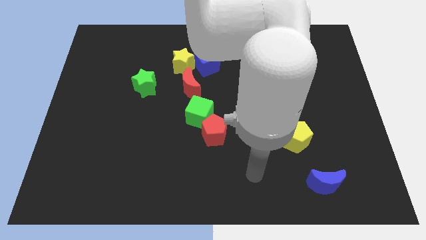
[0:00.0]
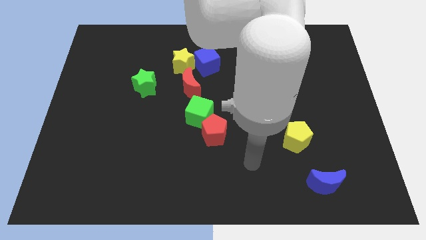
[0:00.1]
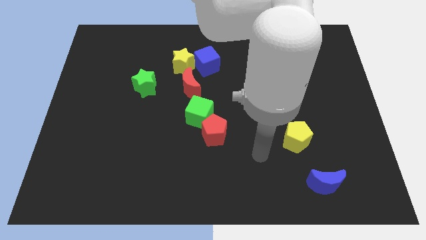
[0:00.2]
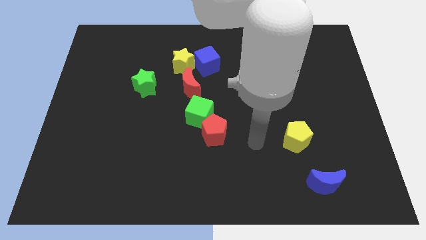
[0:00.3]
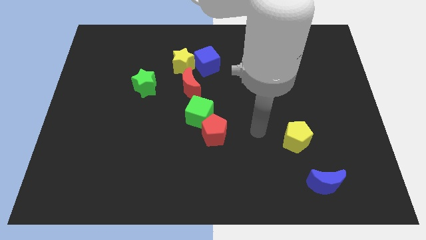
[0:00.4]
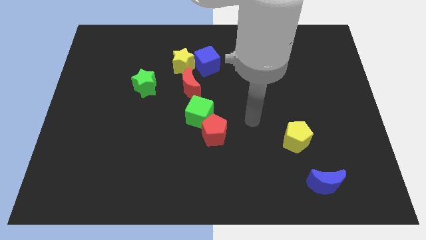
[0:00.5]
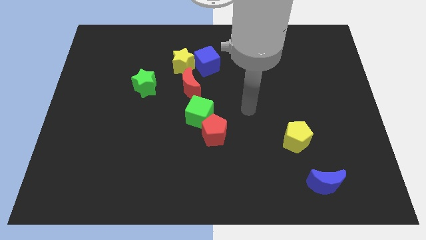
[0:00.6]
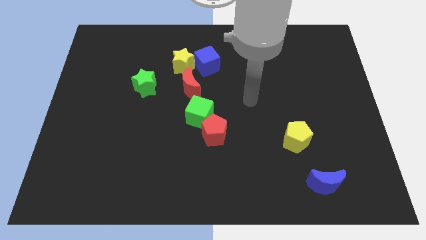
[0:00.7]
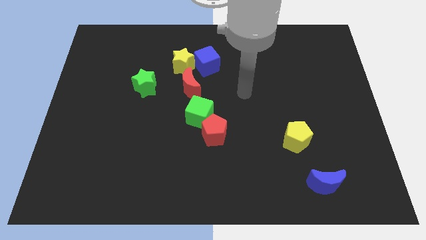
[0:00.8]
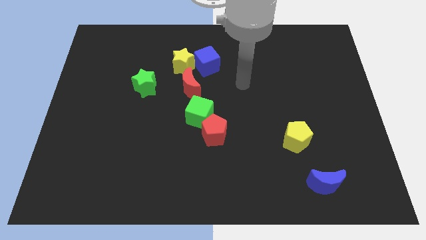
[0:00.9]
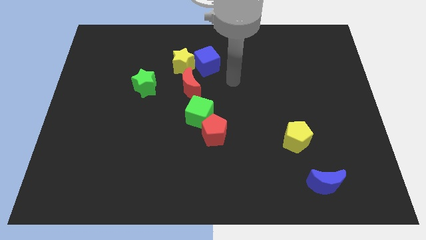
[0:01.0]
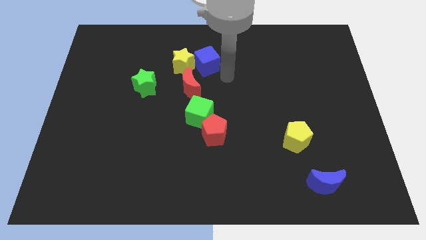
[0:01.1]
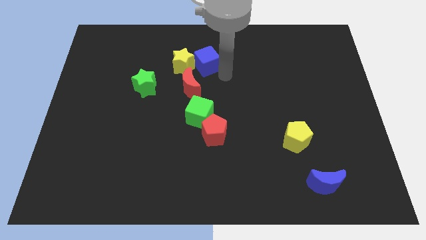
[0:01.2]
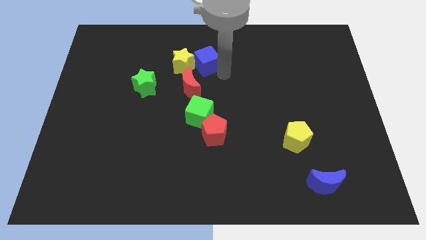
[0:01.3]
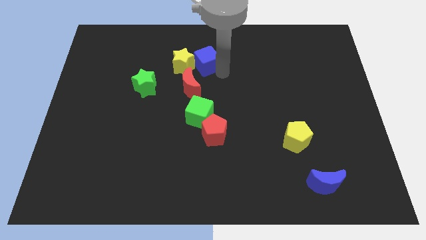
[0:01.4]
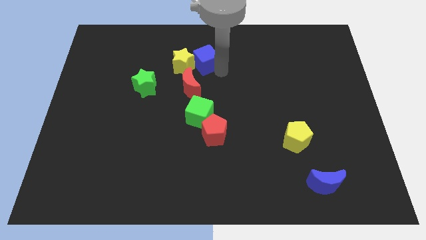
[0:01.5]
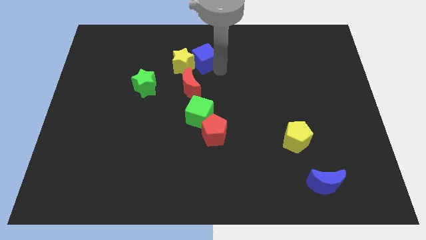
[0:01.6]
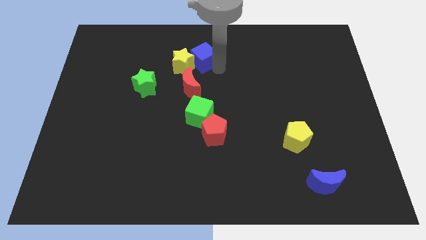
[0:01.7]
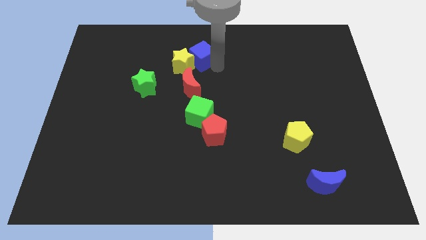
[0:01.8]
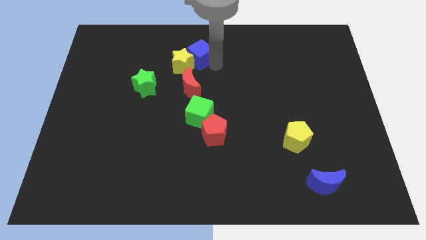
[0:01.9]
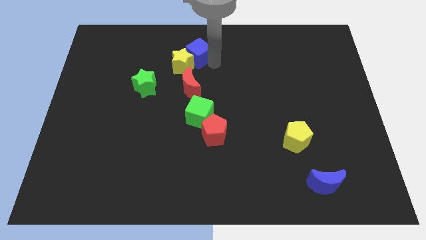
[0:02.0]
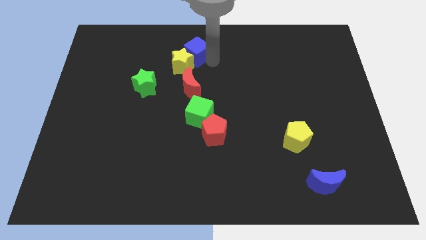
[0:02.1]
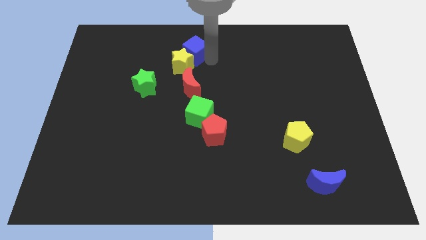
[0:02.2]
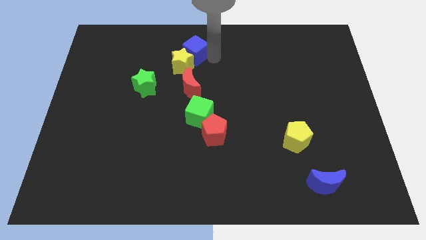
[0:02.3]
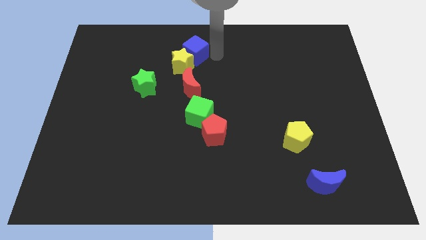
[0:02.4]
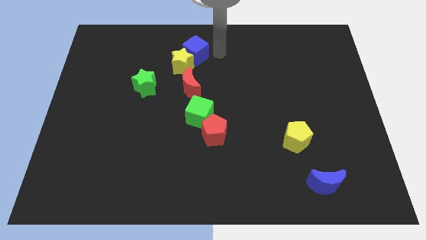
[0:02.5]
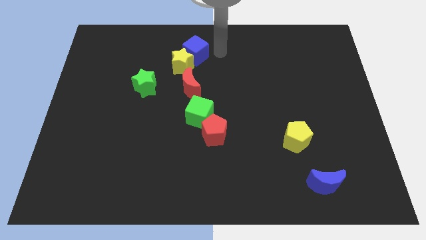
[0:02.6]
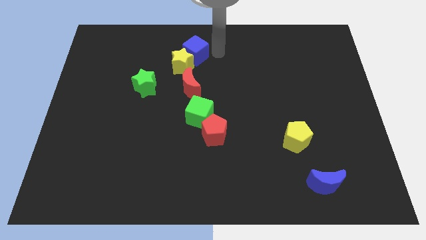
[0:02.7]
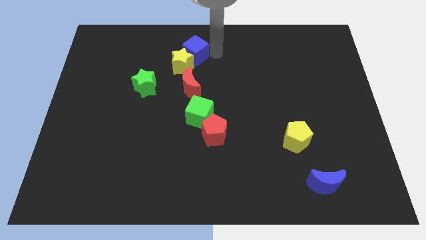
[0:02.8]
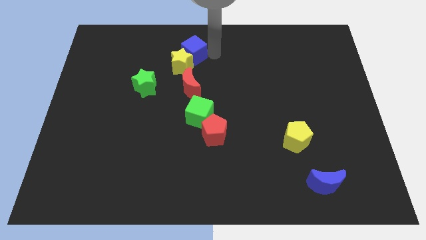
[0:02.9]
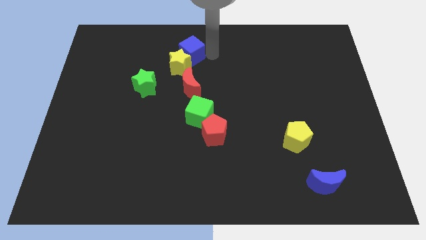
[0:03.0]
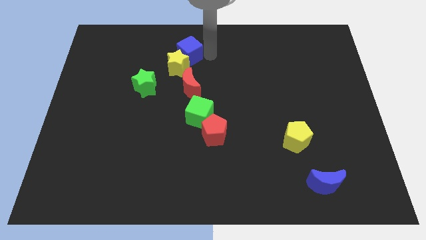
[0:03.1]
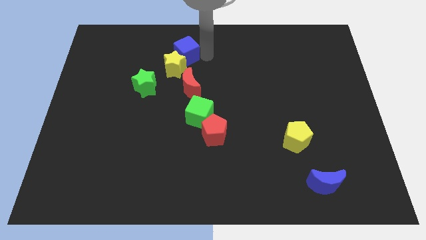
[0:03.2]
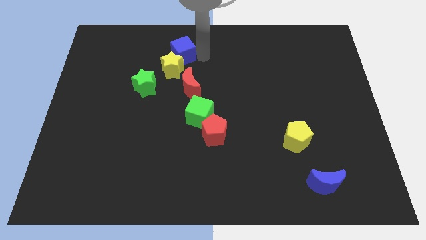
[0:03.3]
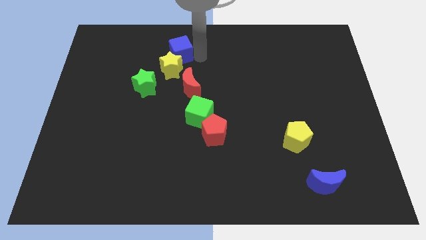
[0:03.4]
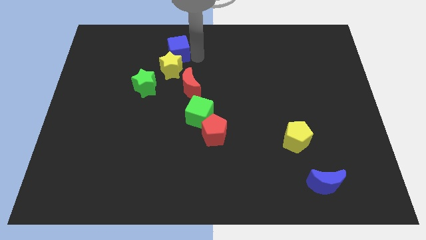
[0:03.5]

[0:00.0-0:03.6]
slide the blue cube to the left a little

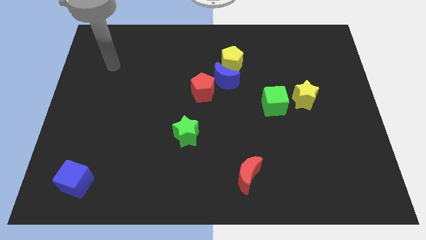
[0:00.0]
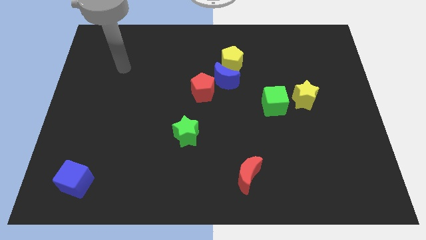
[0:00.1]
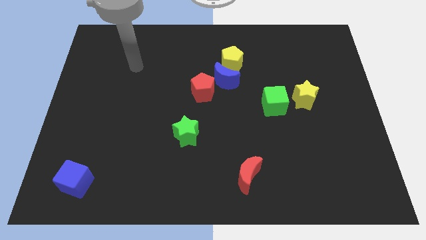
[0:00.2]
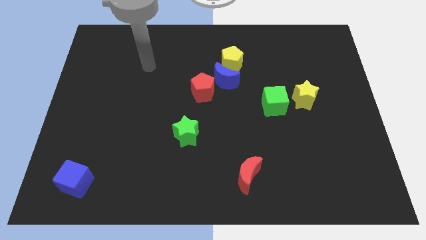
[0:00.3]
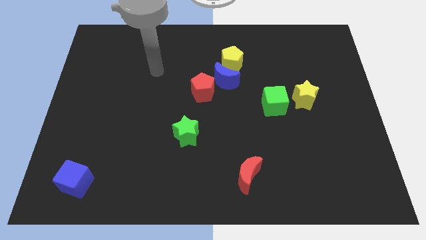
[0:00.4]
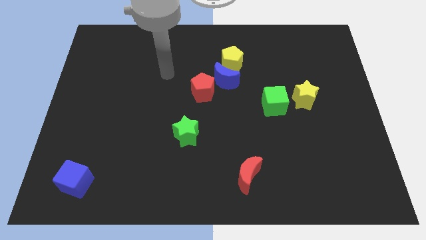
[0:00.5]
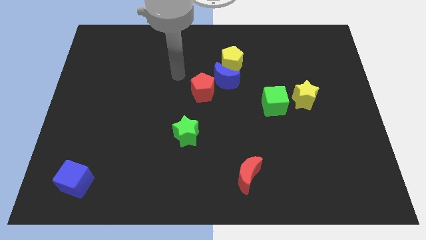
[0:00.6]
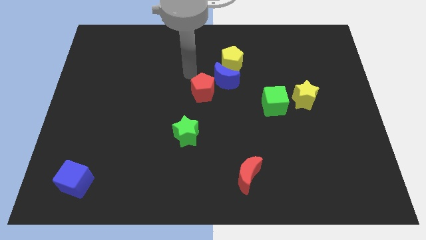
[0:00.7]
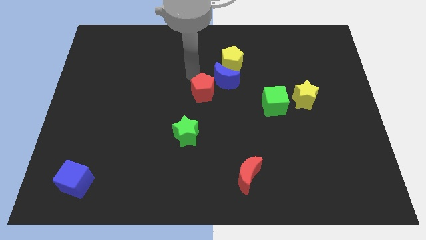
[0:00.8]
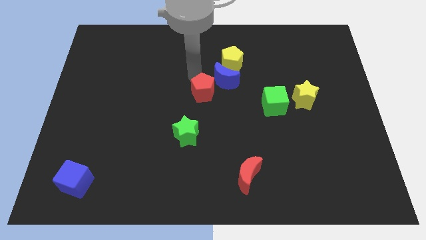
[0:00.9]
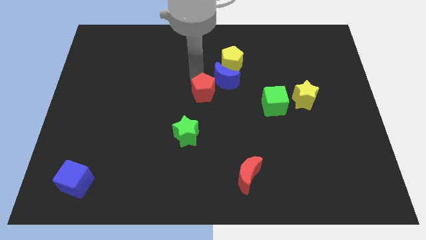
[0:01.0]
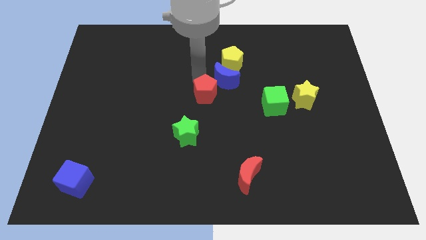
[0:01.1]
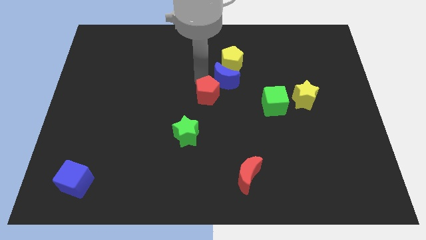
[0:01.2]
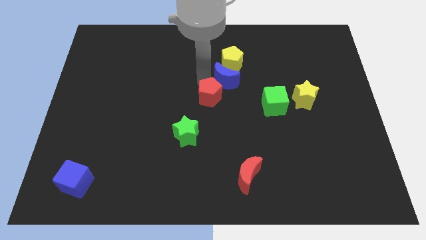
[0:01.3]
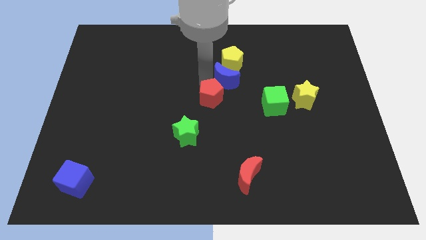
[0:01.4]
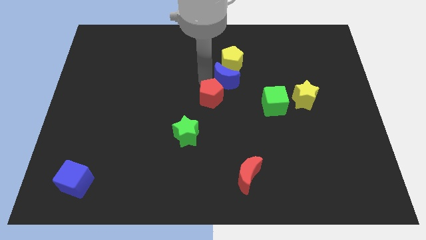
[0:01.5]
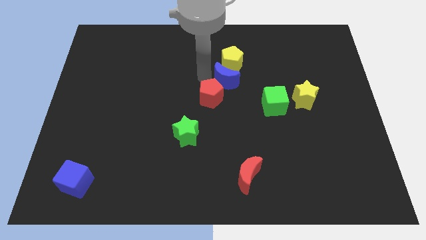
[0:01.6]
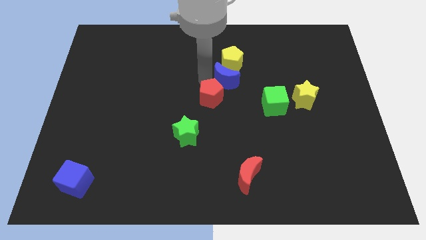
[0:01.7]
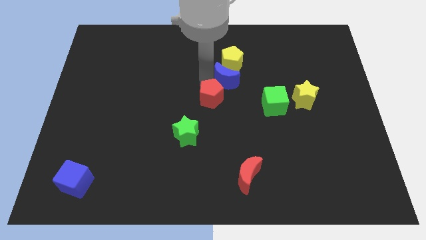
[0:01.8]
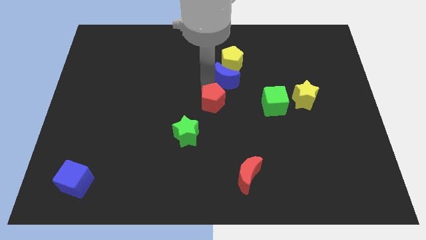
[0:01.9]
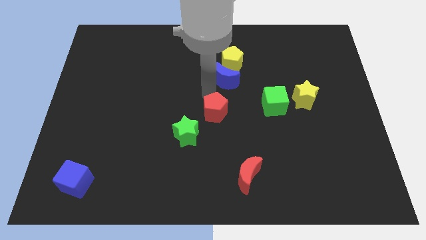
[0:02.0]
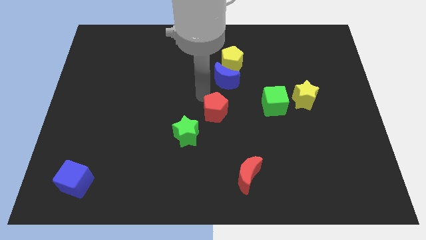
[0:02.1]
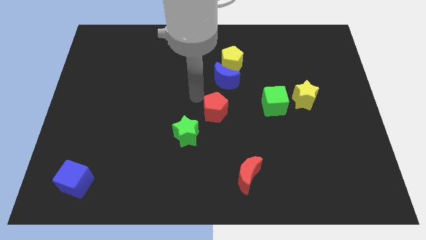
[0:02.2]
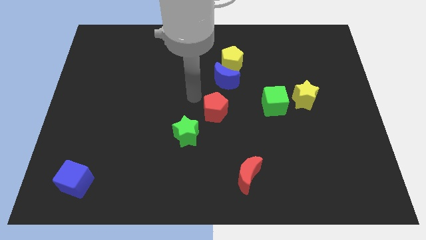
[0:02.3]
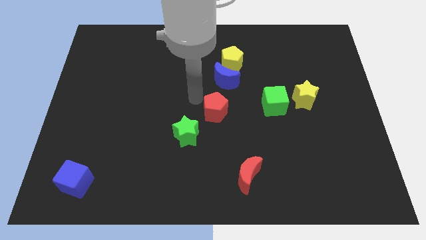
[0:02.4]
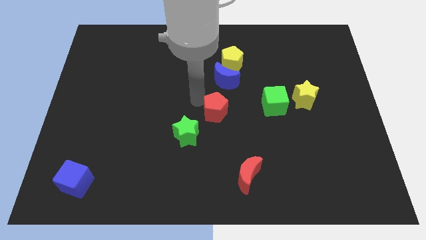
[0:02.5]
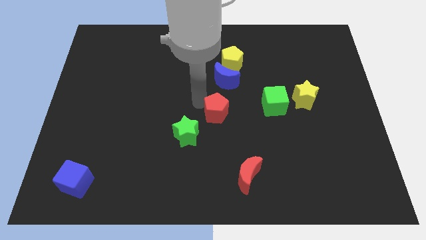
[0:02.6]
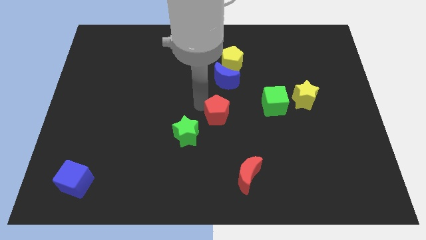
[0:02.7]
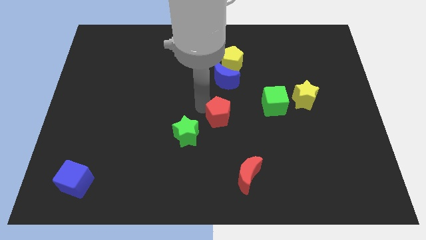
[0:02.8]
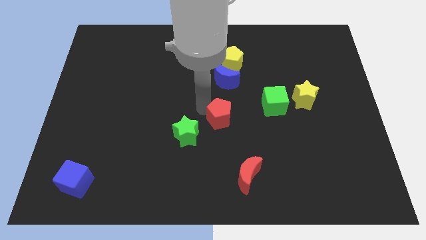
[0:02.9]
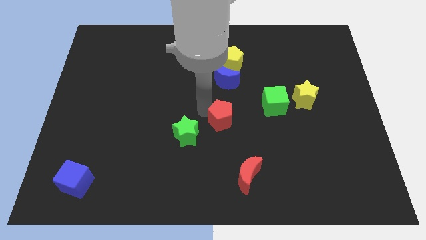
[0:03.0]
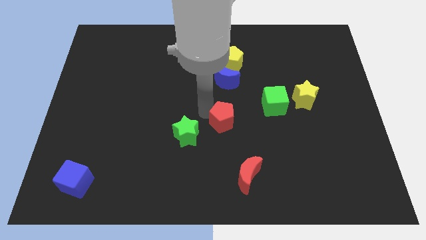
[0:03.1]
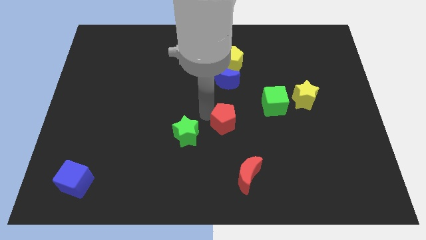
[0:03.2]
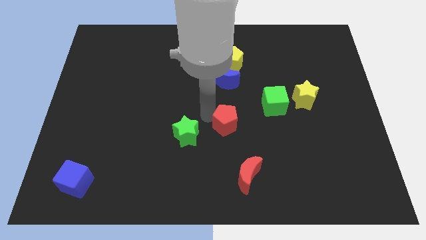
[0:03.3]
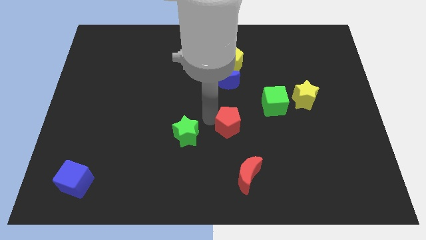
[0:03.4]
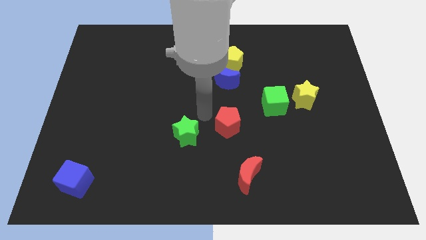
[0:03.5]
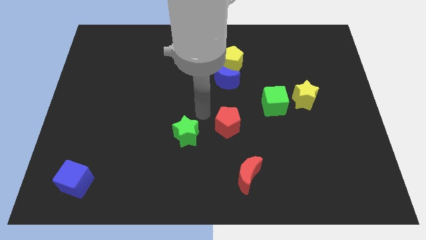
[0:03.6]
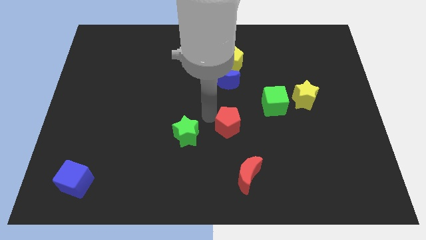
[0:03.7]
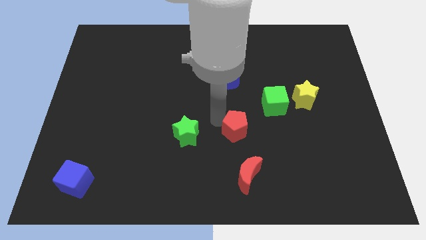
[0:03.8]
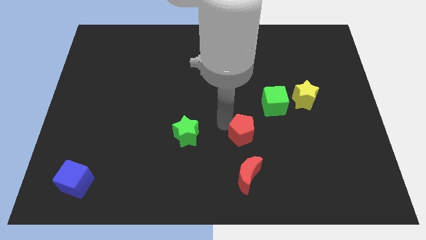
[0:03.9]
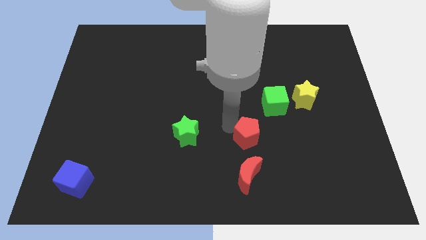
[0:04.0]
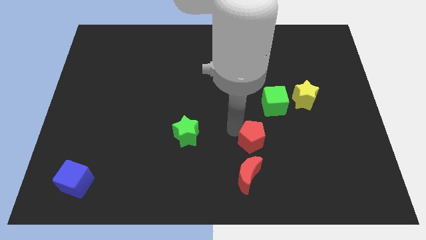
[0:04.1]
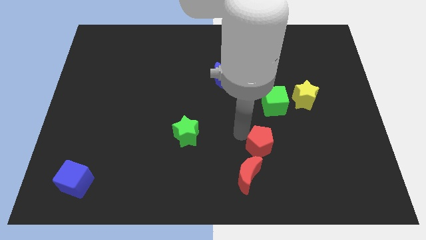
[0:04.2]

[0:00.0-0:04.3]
slide the red pentagon down and to the right

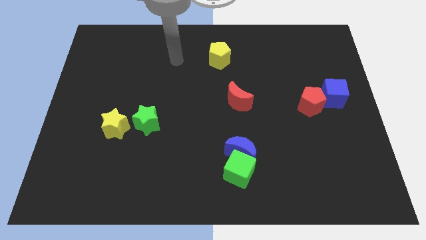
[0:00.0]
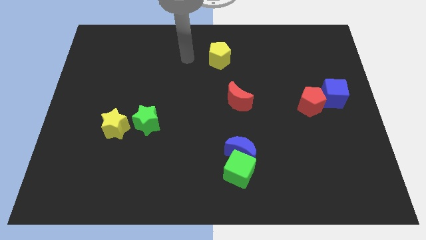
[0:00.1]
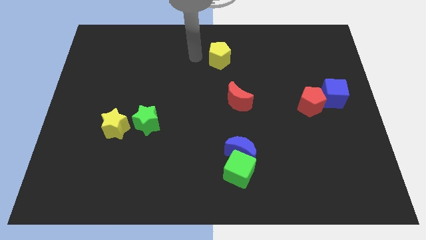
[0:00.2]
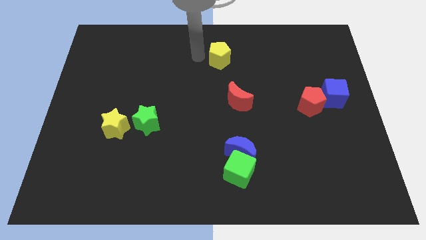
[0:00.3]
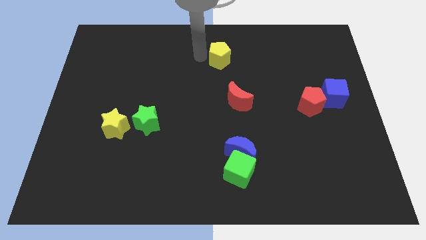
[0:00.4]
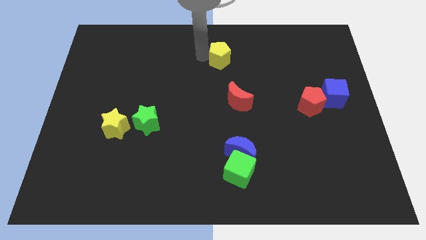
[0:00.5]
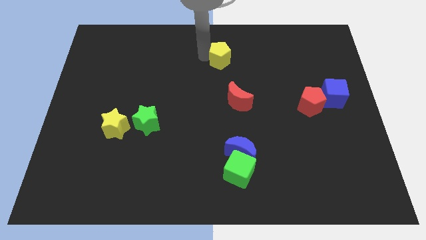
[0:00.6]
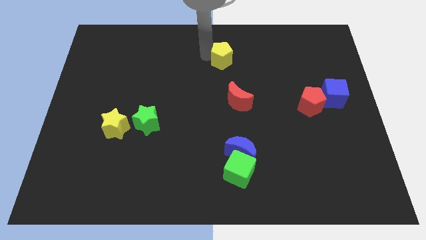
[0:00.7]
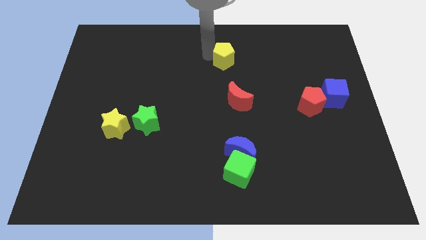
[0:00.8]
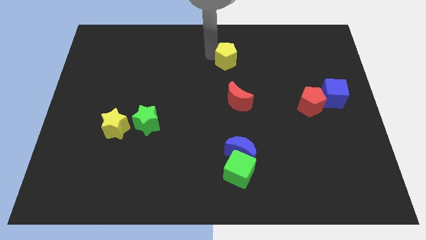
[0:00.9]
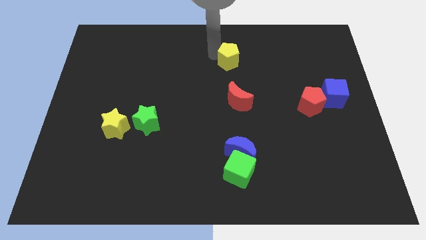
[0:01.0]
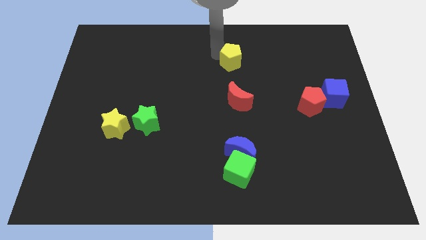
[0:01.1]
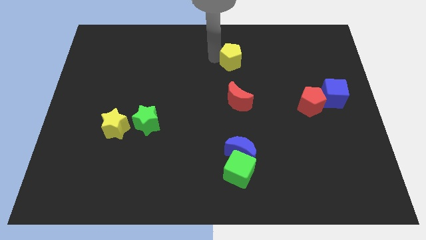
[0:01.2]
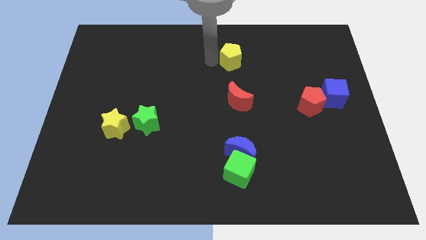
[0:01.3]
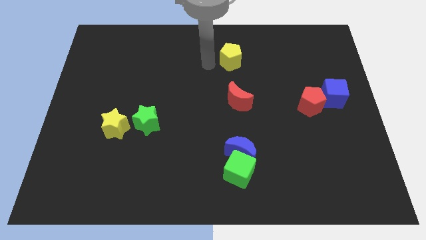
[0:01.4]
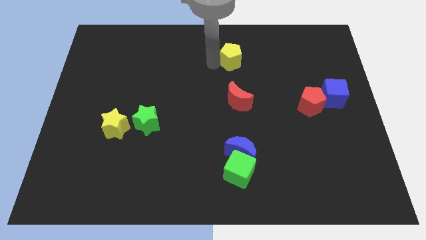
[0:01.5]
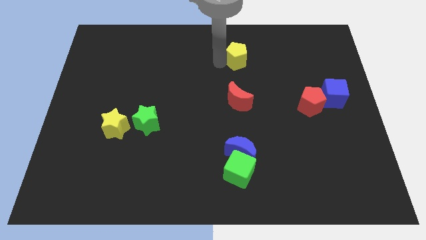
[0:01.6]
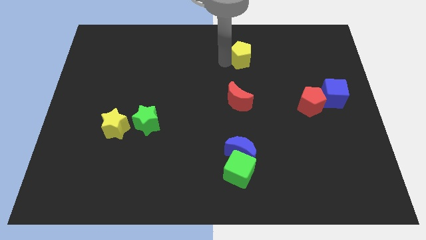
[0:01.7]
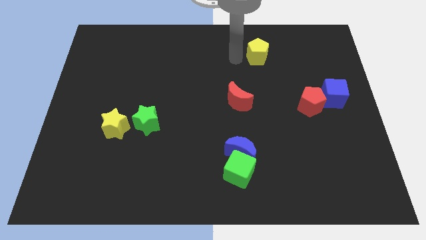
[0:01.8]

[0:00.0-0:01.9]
push the yellow pentagon a bit right
